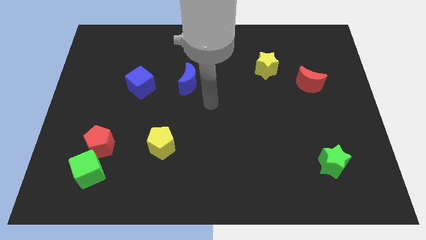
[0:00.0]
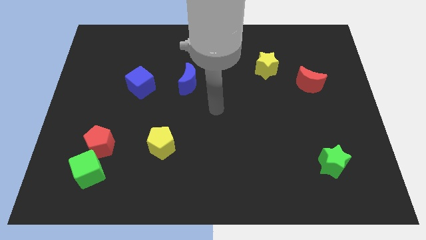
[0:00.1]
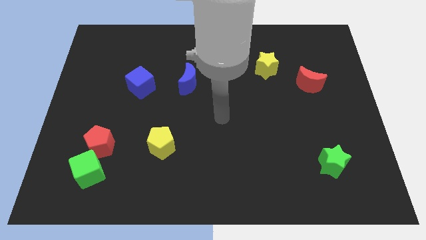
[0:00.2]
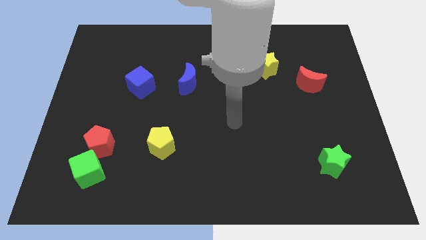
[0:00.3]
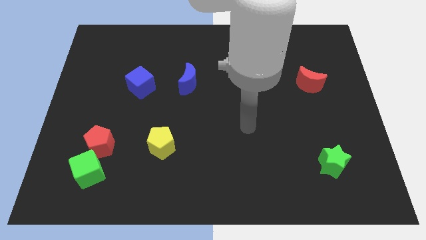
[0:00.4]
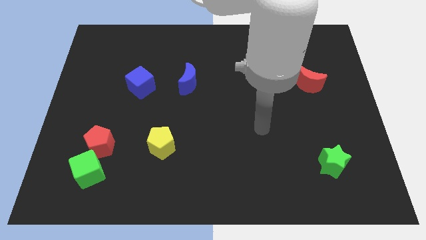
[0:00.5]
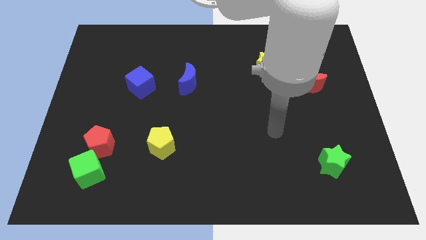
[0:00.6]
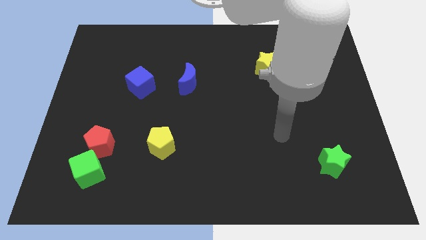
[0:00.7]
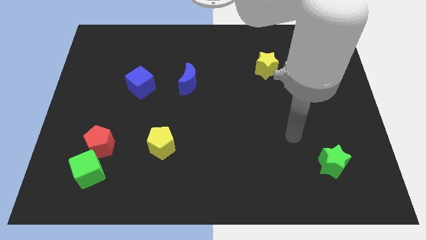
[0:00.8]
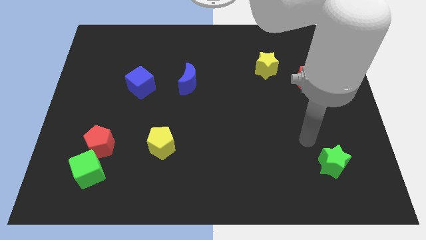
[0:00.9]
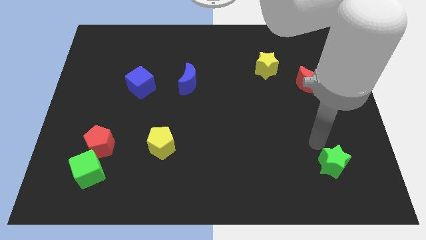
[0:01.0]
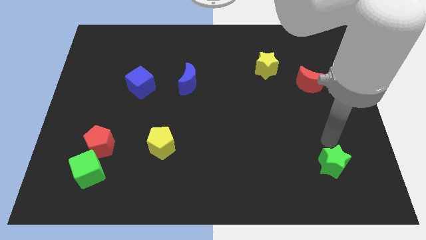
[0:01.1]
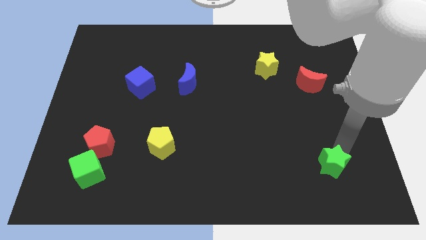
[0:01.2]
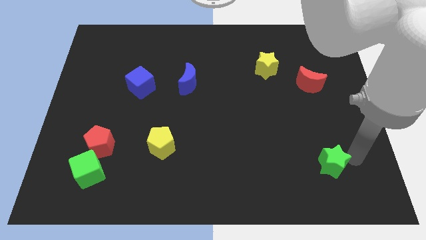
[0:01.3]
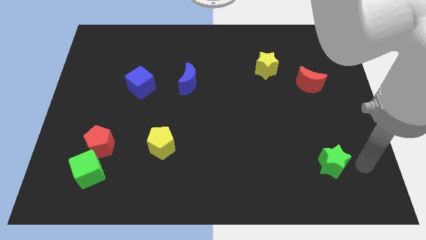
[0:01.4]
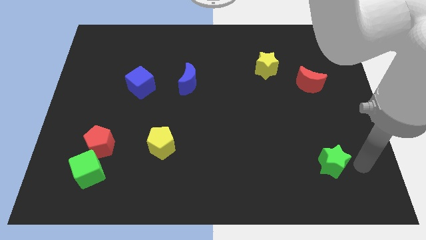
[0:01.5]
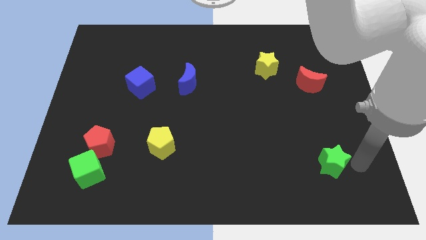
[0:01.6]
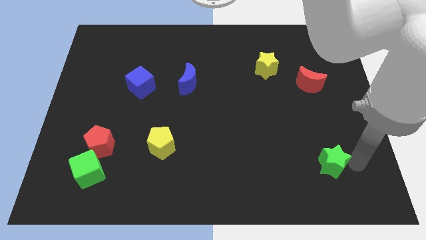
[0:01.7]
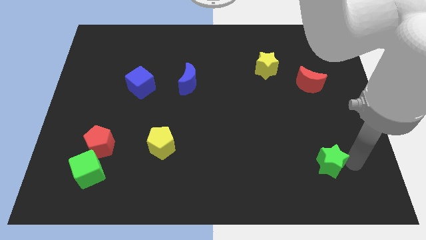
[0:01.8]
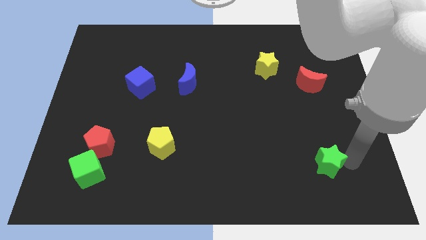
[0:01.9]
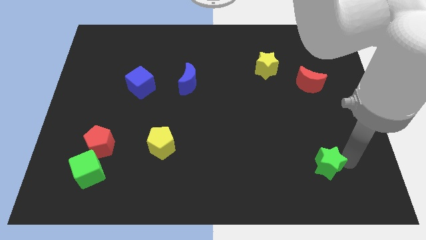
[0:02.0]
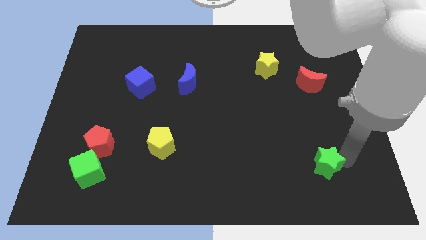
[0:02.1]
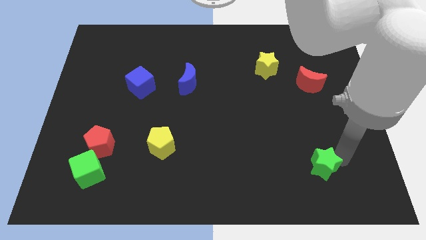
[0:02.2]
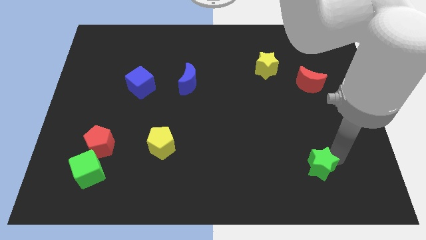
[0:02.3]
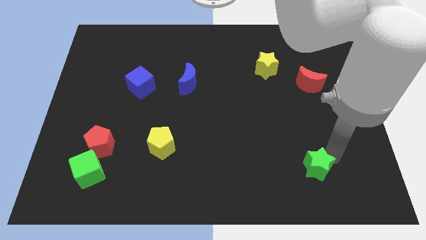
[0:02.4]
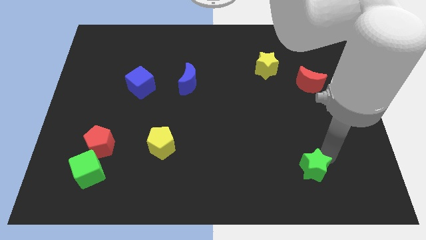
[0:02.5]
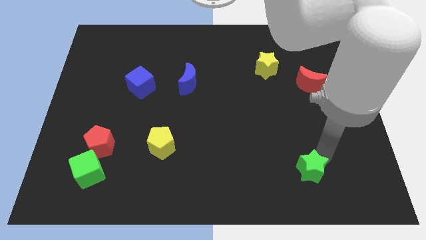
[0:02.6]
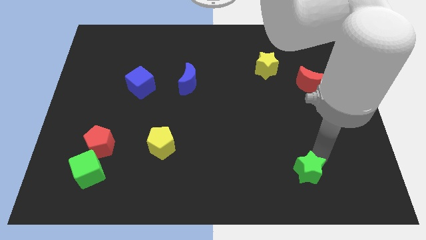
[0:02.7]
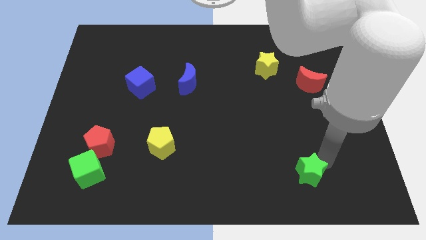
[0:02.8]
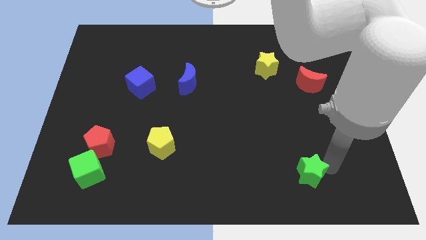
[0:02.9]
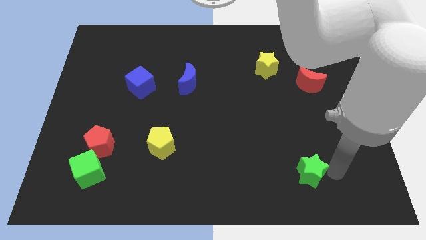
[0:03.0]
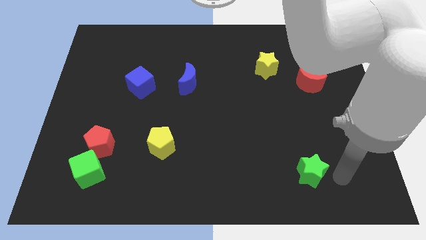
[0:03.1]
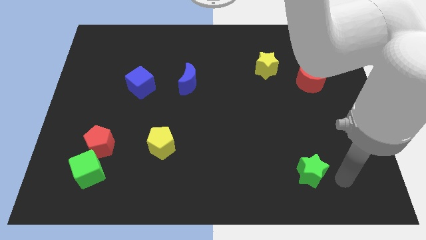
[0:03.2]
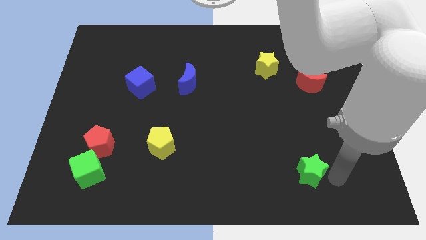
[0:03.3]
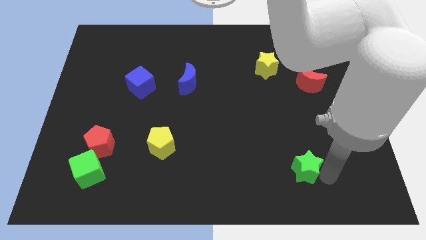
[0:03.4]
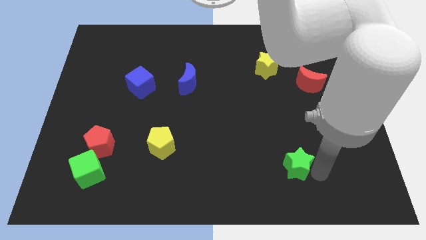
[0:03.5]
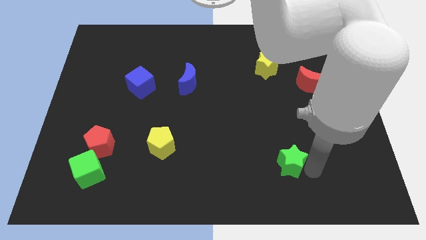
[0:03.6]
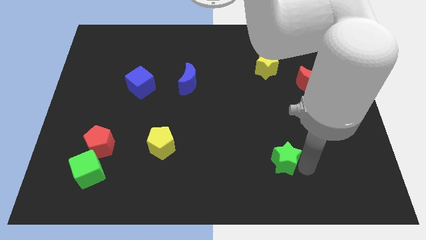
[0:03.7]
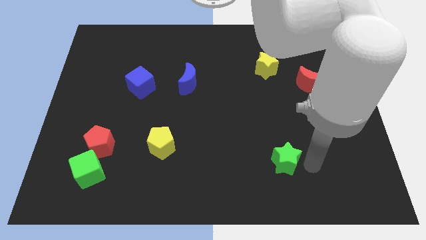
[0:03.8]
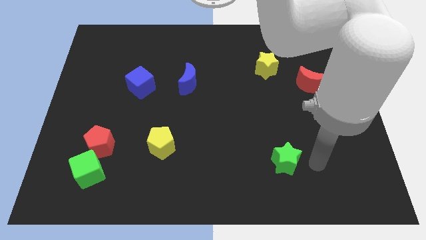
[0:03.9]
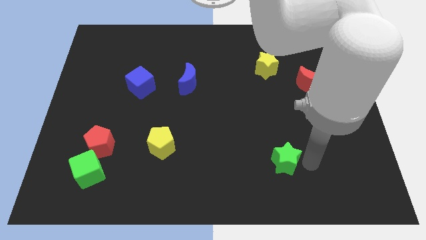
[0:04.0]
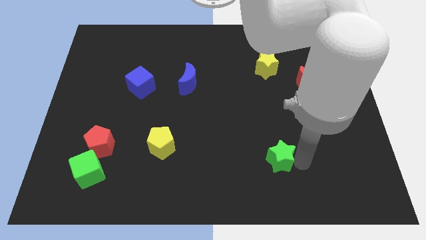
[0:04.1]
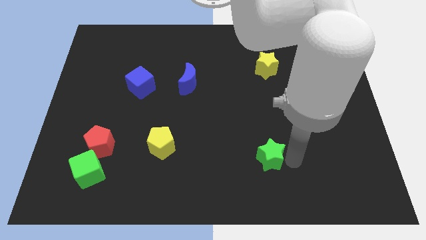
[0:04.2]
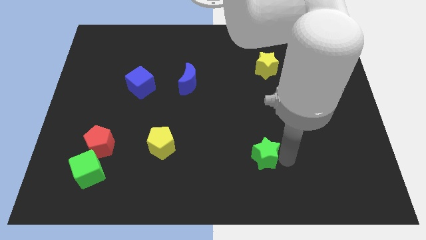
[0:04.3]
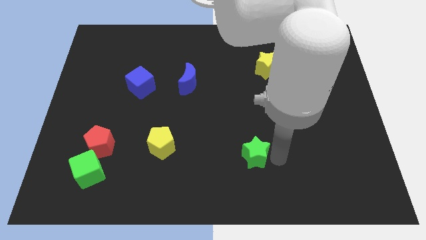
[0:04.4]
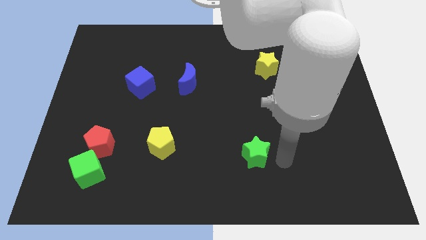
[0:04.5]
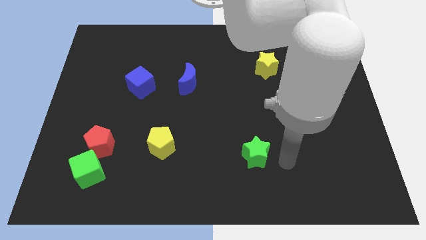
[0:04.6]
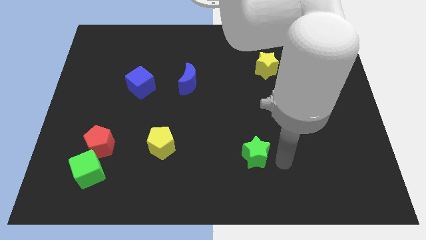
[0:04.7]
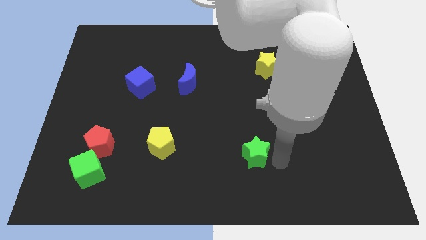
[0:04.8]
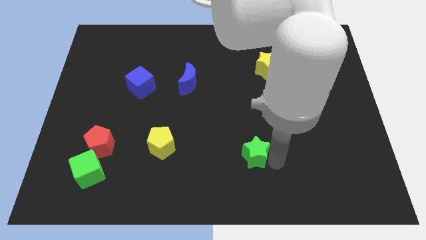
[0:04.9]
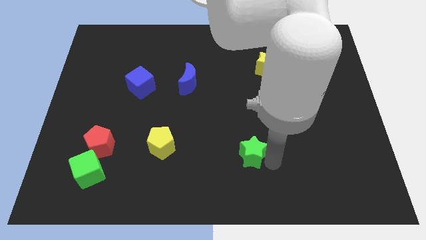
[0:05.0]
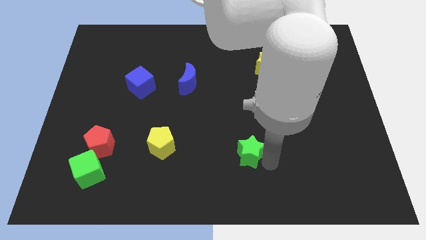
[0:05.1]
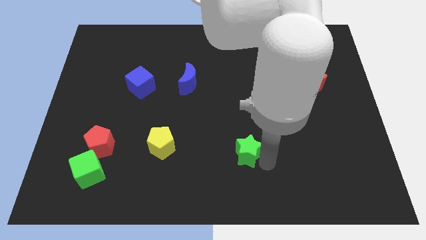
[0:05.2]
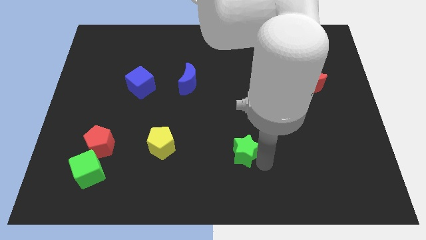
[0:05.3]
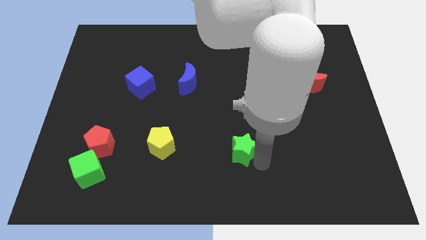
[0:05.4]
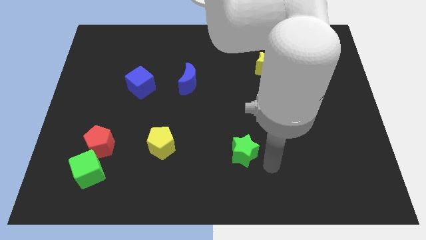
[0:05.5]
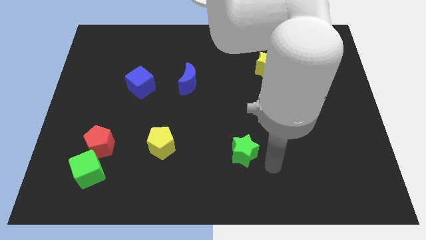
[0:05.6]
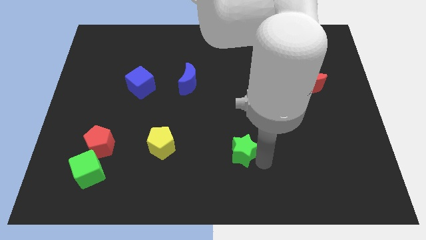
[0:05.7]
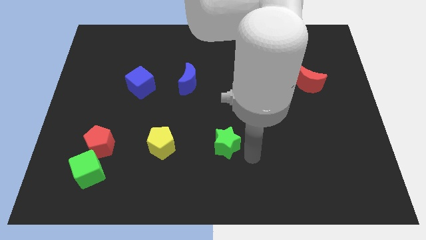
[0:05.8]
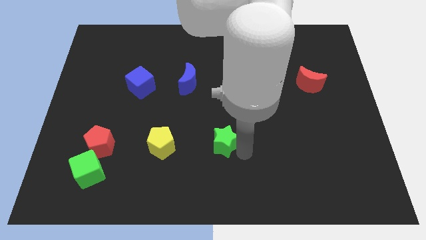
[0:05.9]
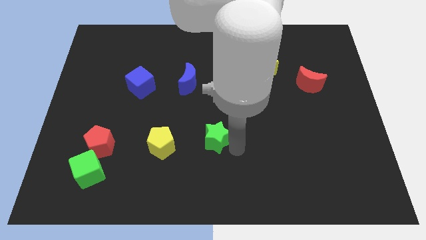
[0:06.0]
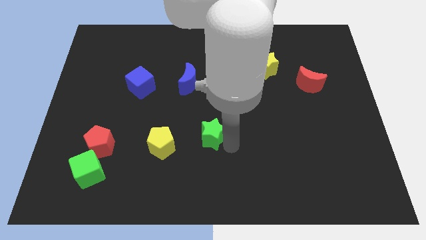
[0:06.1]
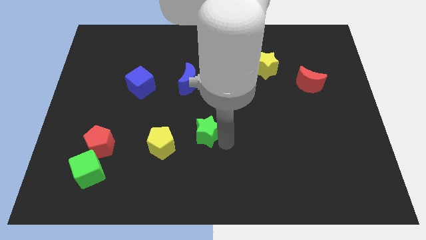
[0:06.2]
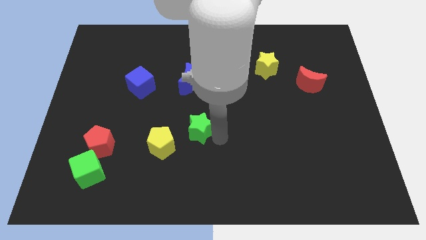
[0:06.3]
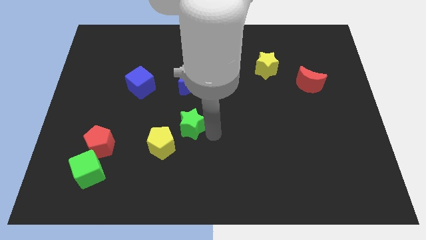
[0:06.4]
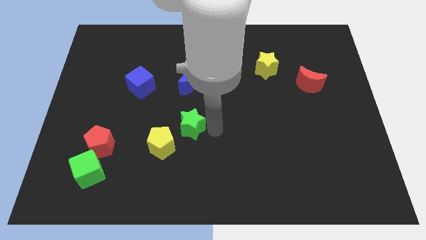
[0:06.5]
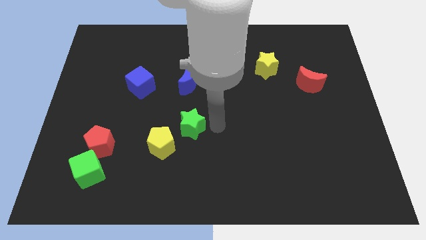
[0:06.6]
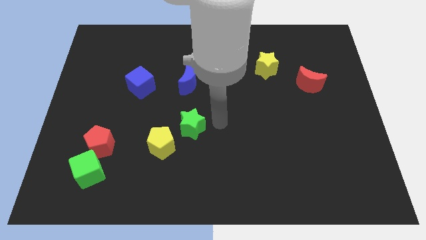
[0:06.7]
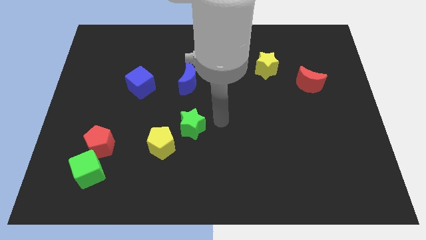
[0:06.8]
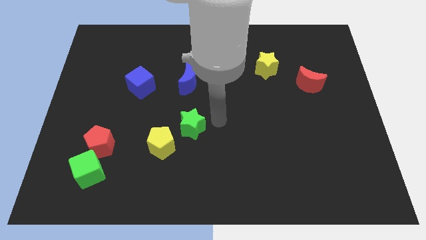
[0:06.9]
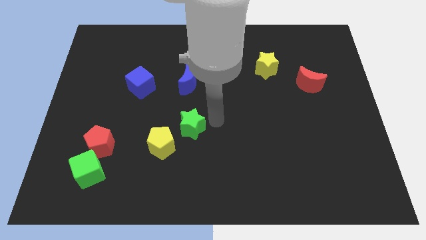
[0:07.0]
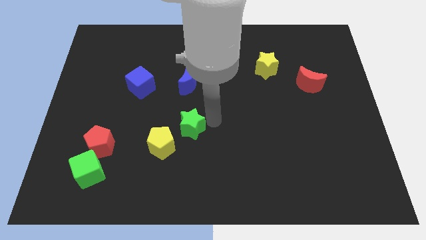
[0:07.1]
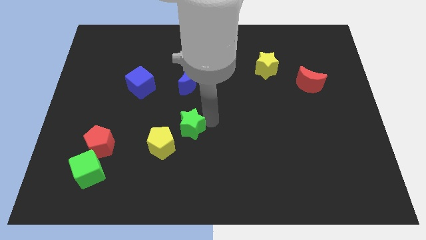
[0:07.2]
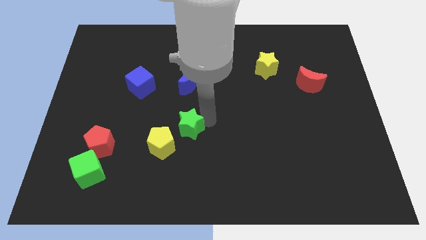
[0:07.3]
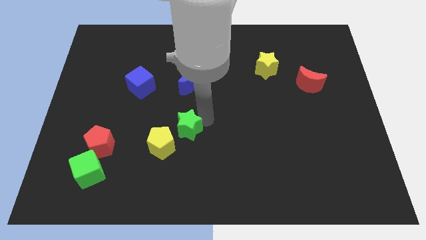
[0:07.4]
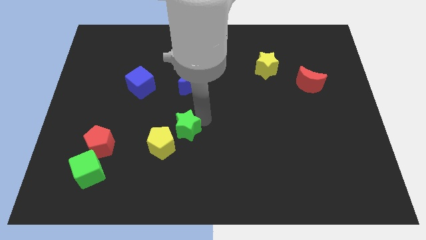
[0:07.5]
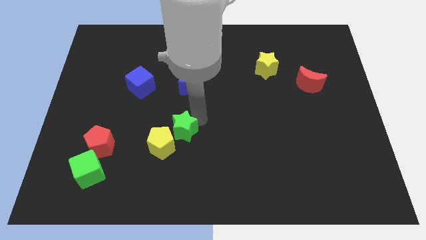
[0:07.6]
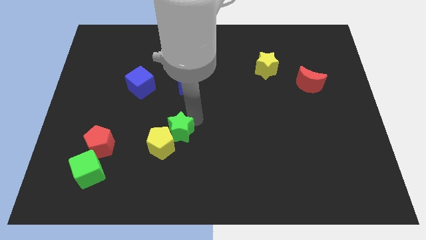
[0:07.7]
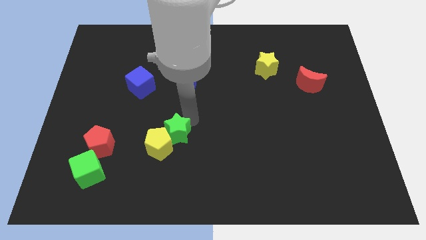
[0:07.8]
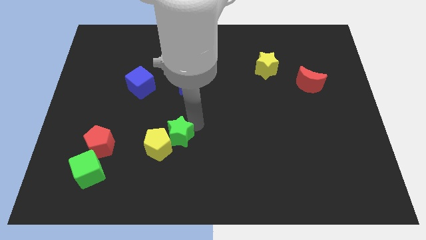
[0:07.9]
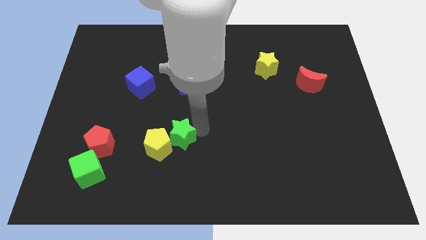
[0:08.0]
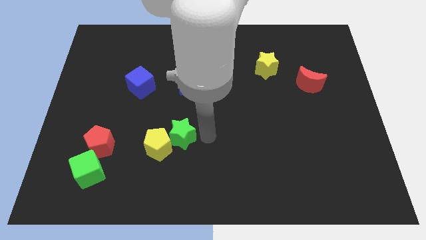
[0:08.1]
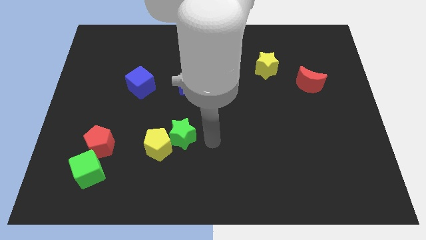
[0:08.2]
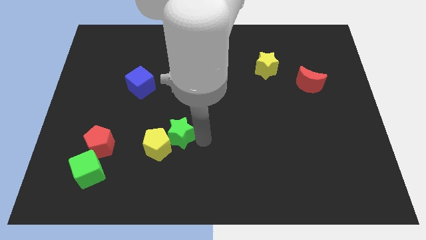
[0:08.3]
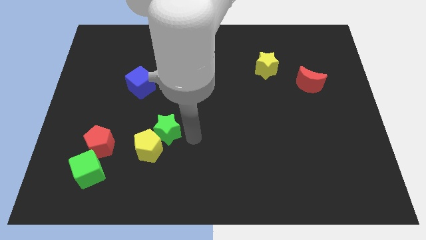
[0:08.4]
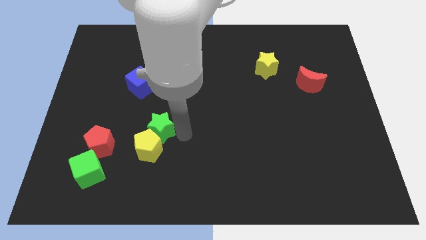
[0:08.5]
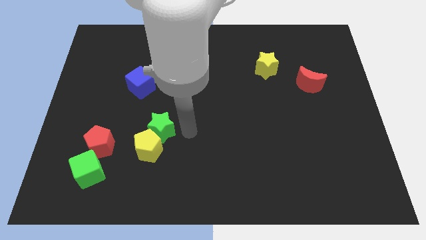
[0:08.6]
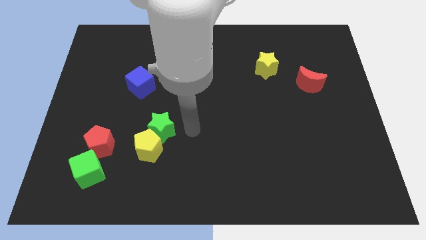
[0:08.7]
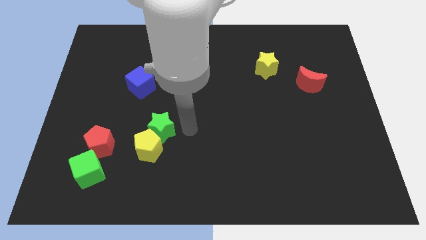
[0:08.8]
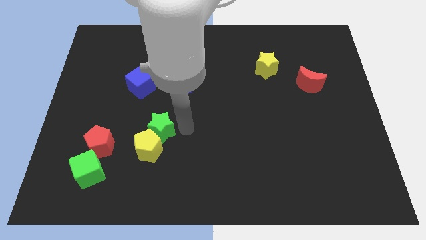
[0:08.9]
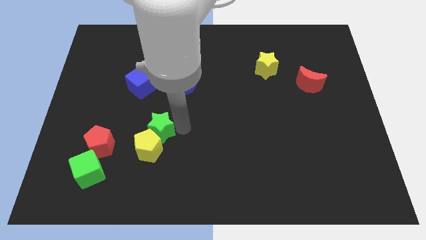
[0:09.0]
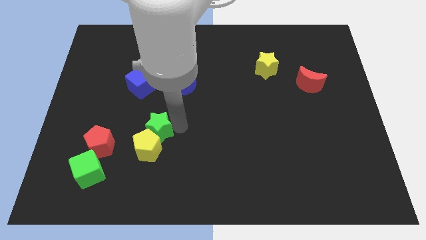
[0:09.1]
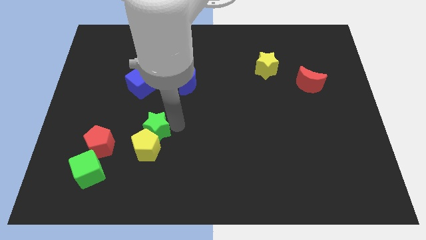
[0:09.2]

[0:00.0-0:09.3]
move the green star to the top left side of the yellow pentagon
